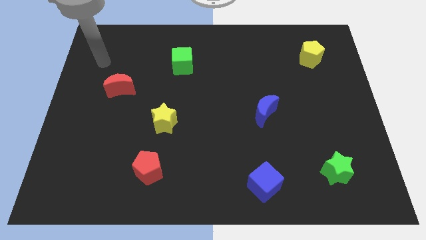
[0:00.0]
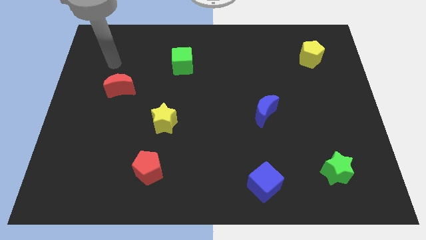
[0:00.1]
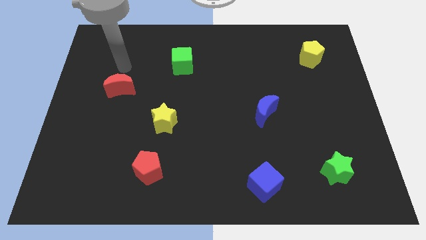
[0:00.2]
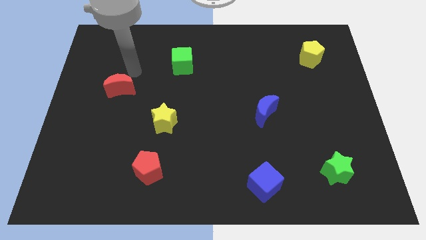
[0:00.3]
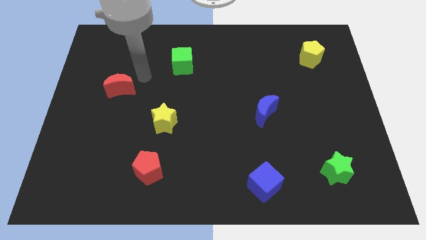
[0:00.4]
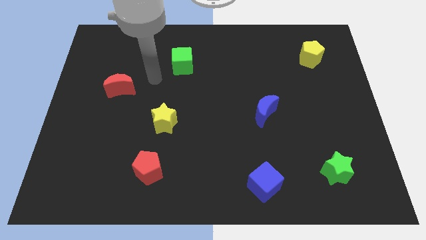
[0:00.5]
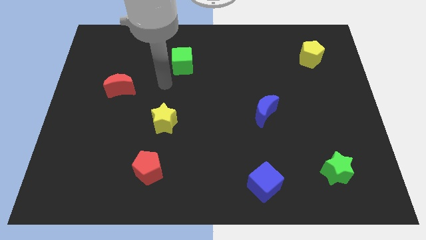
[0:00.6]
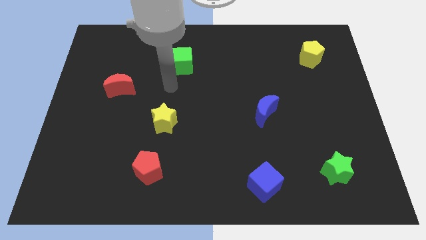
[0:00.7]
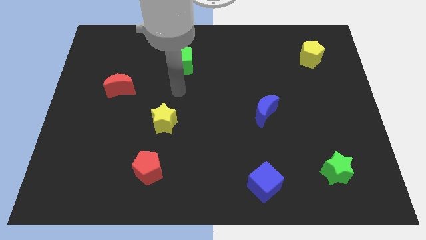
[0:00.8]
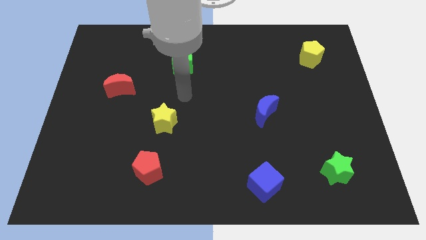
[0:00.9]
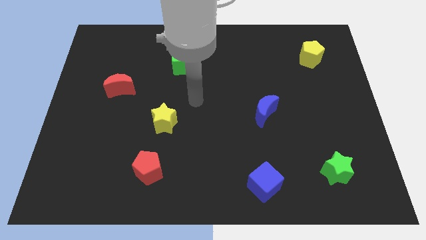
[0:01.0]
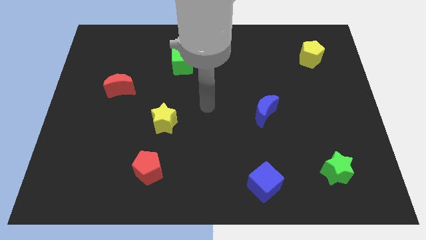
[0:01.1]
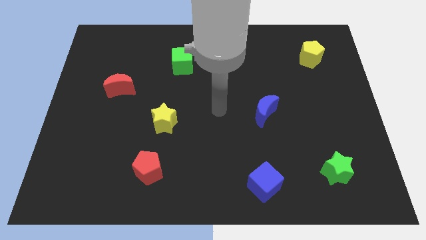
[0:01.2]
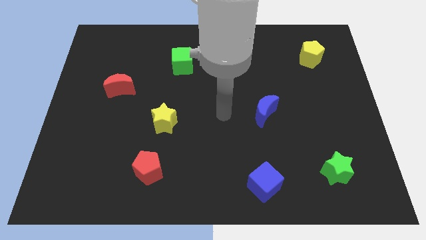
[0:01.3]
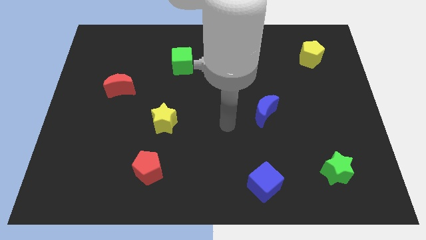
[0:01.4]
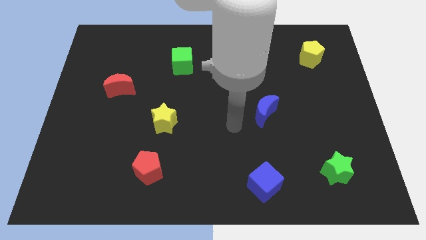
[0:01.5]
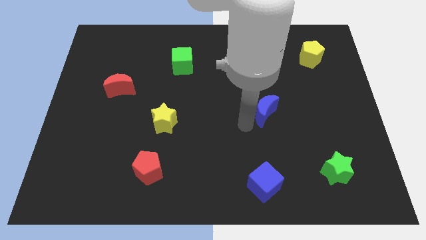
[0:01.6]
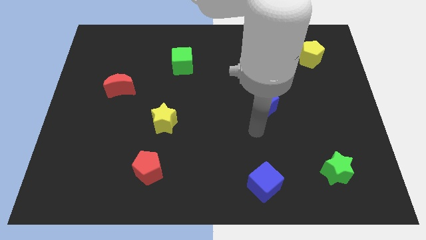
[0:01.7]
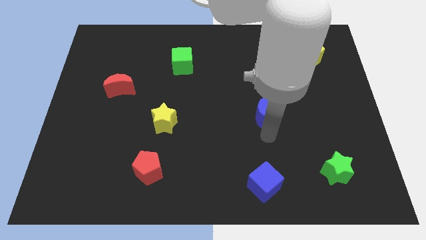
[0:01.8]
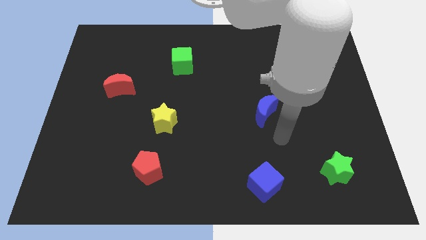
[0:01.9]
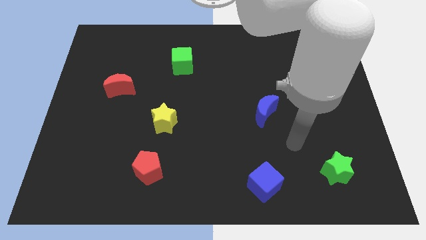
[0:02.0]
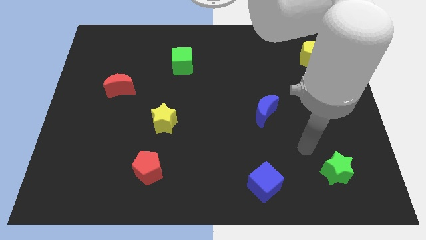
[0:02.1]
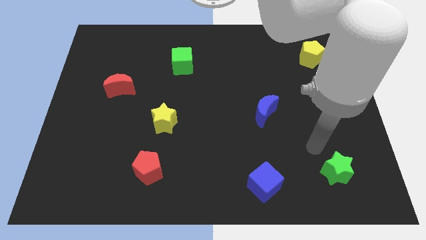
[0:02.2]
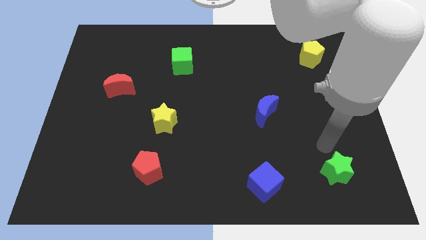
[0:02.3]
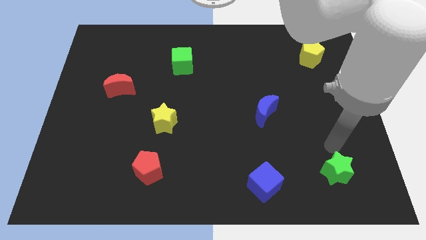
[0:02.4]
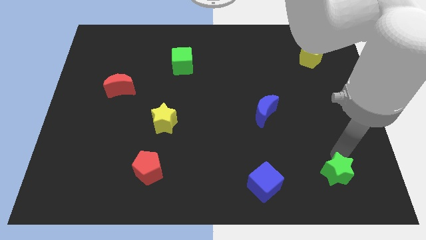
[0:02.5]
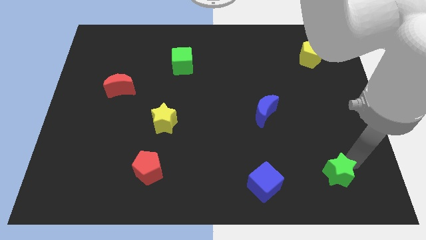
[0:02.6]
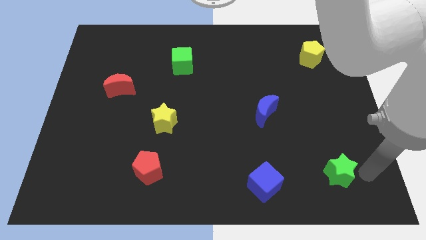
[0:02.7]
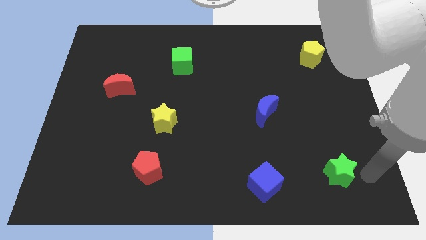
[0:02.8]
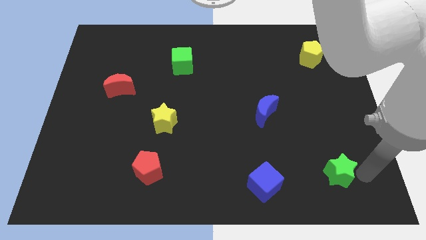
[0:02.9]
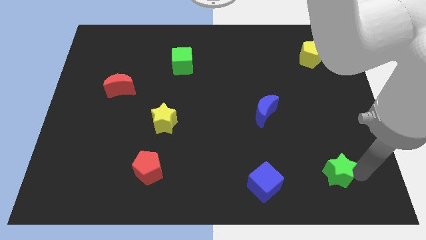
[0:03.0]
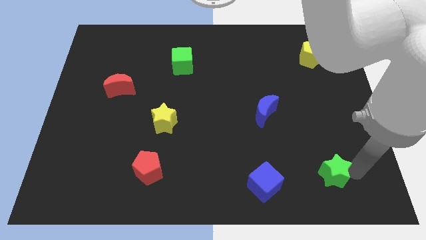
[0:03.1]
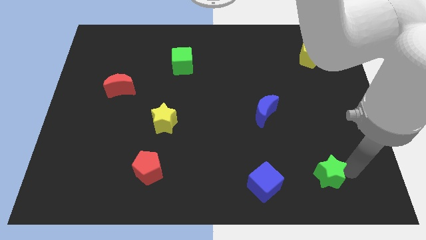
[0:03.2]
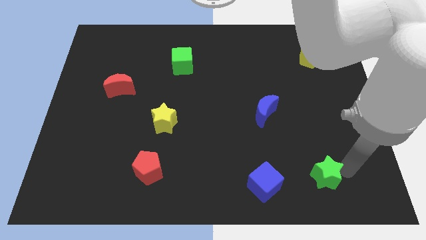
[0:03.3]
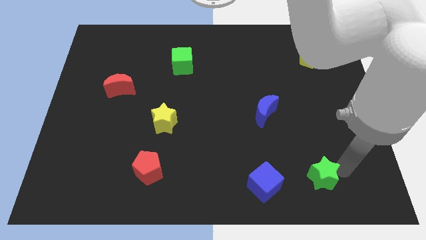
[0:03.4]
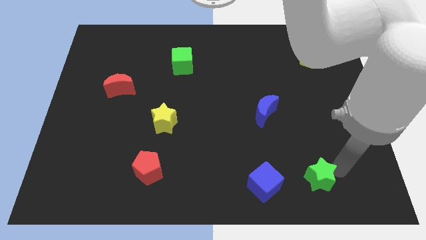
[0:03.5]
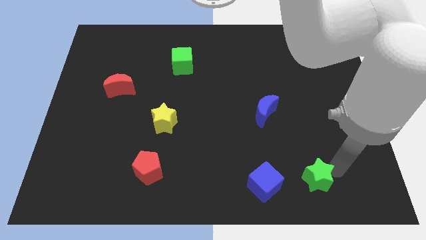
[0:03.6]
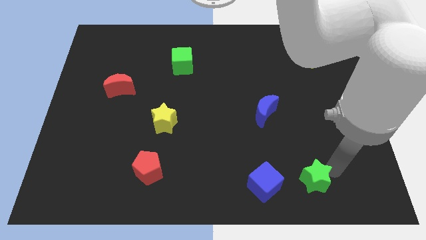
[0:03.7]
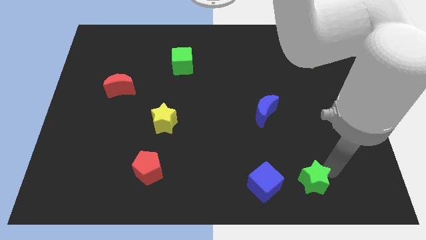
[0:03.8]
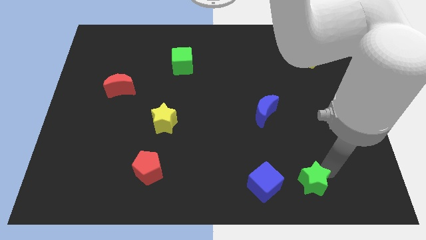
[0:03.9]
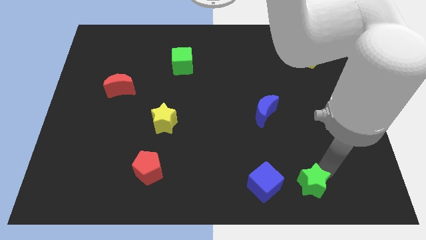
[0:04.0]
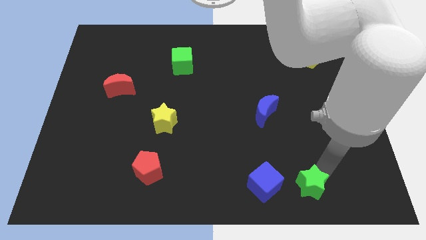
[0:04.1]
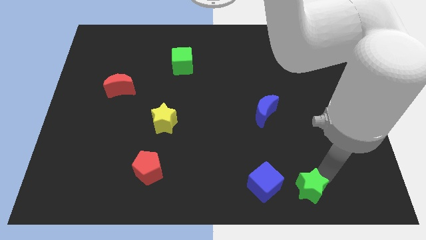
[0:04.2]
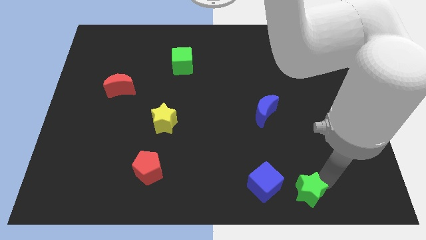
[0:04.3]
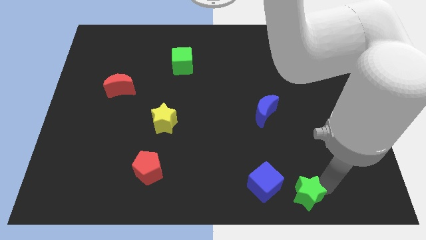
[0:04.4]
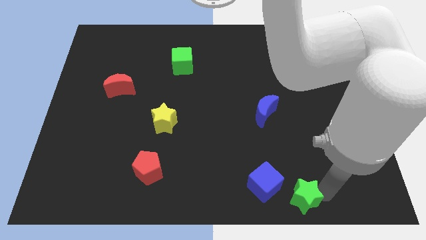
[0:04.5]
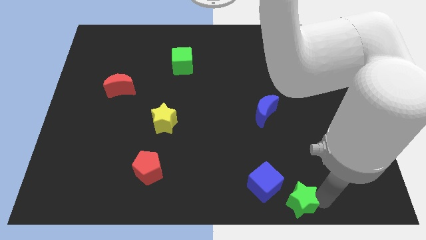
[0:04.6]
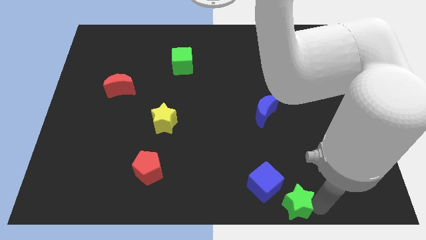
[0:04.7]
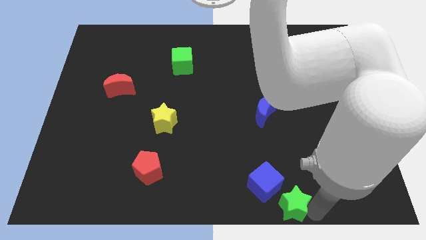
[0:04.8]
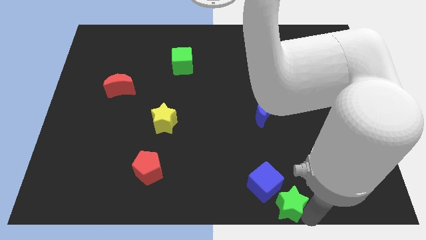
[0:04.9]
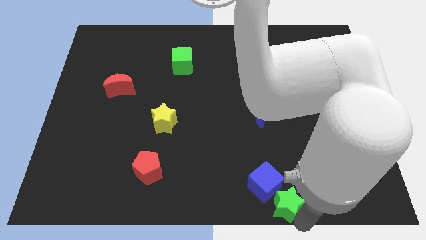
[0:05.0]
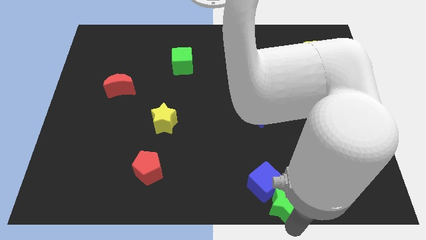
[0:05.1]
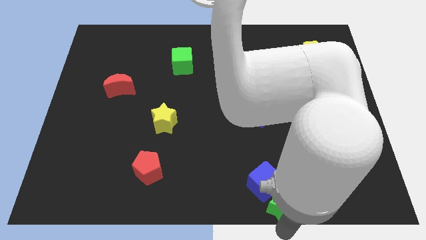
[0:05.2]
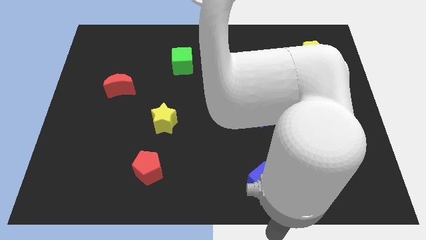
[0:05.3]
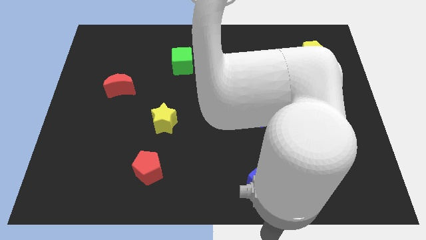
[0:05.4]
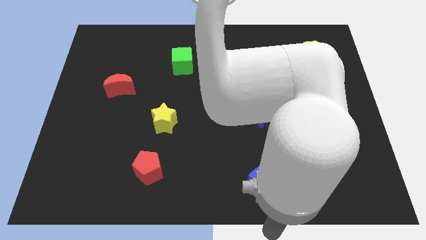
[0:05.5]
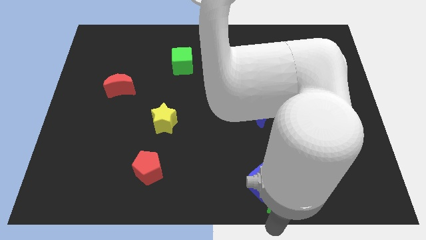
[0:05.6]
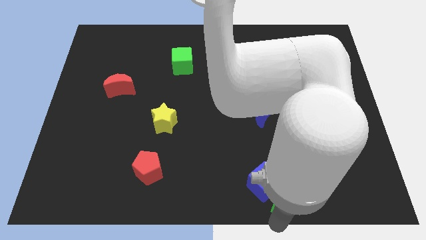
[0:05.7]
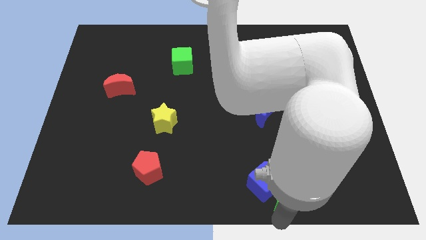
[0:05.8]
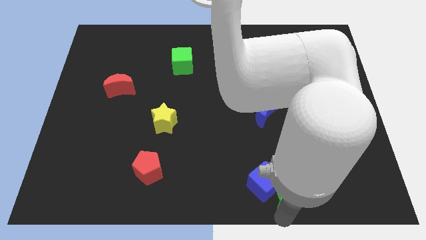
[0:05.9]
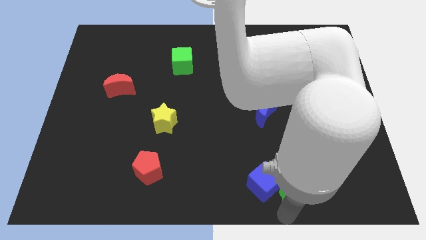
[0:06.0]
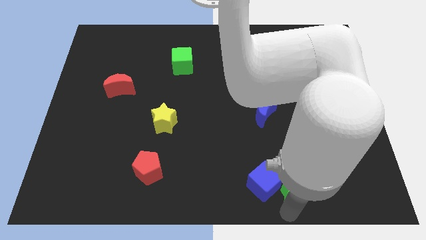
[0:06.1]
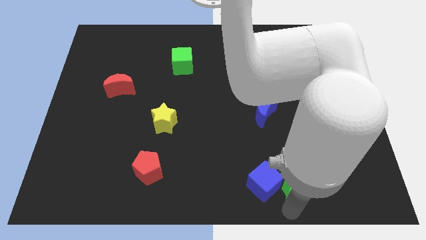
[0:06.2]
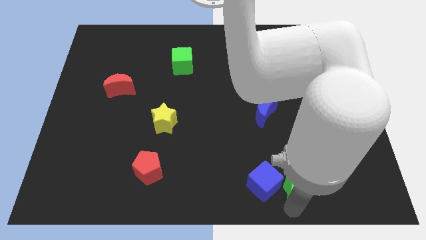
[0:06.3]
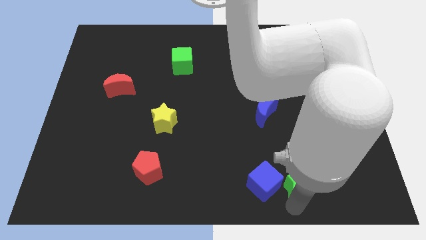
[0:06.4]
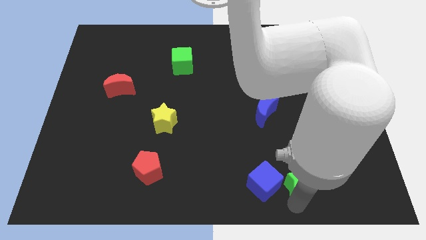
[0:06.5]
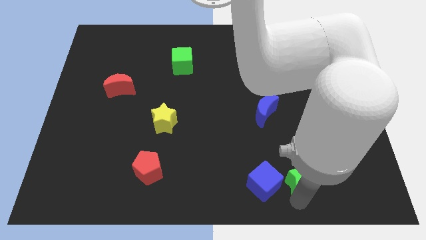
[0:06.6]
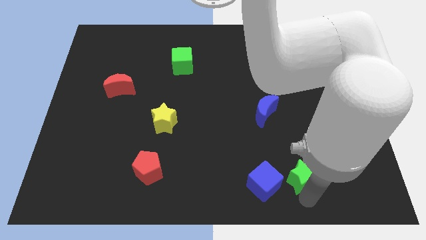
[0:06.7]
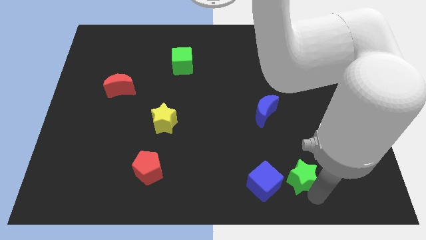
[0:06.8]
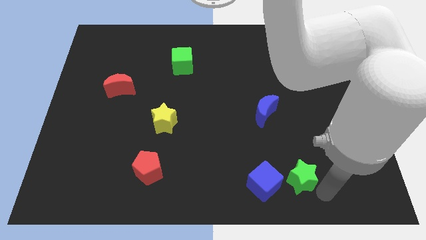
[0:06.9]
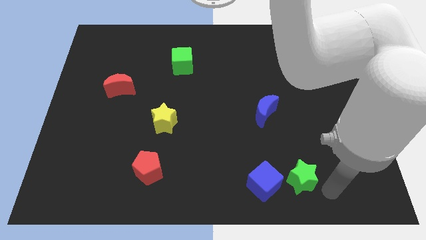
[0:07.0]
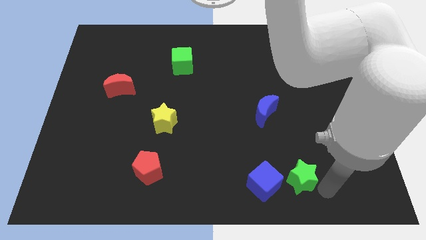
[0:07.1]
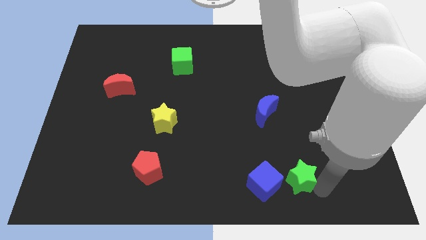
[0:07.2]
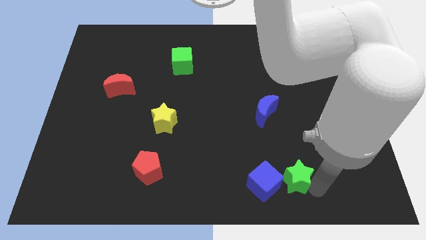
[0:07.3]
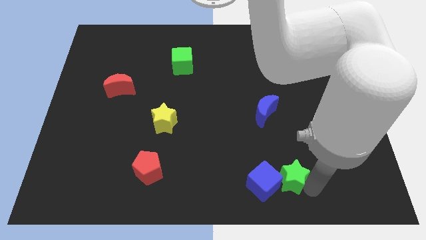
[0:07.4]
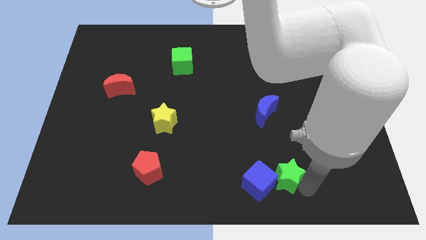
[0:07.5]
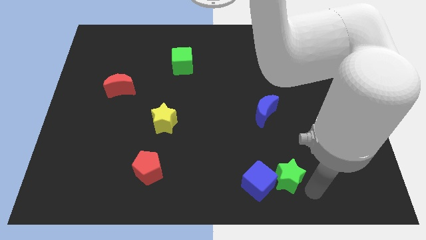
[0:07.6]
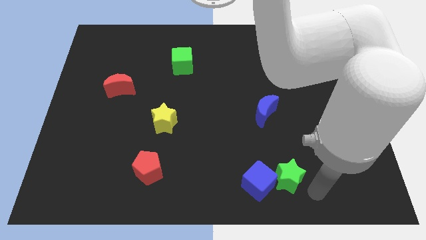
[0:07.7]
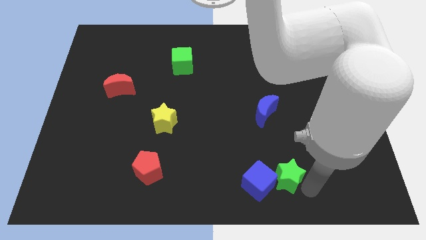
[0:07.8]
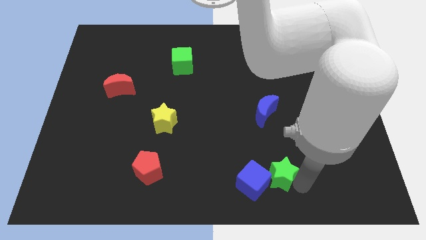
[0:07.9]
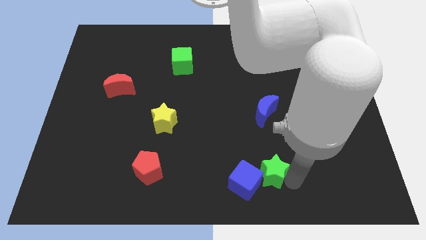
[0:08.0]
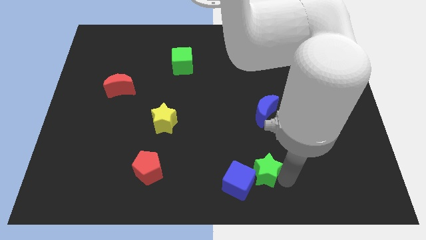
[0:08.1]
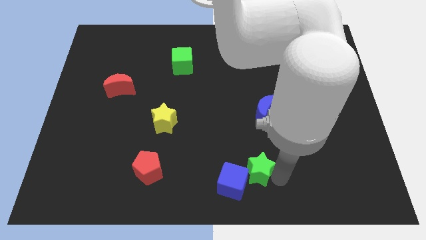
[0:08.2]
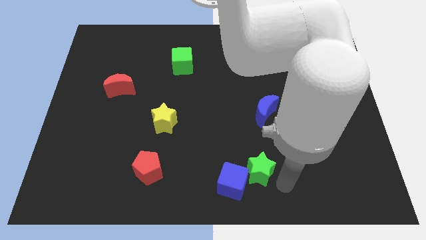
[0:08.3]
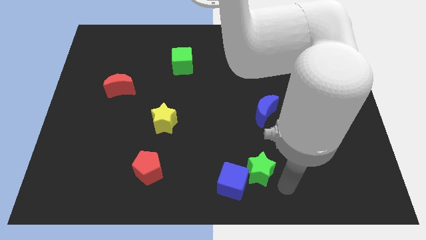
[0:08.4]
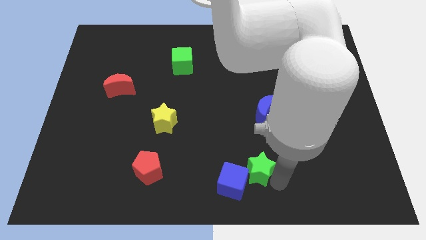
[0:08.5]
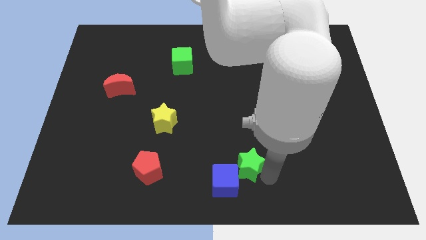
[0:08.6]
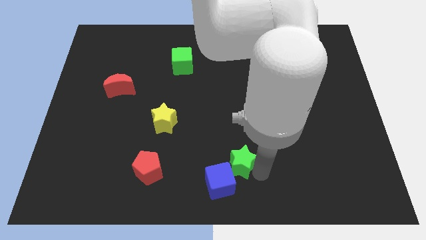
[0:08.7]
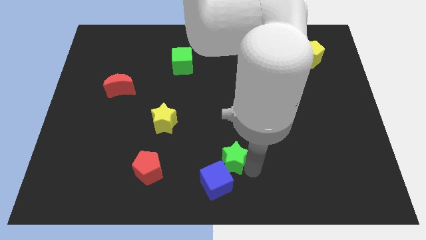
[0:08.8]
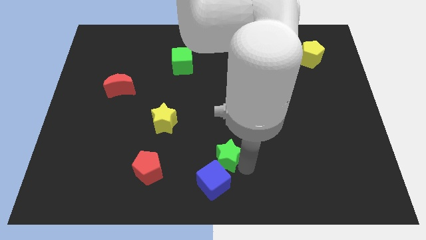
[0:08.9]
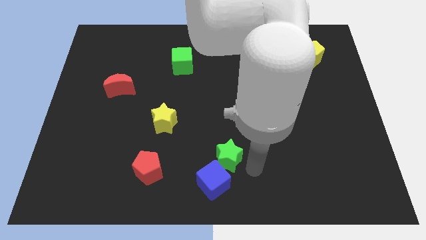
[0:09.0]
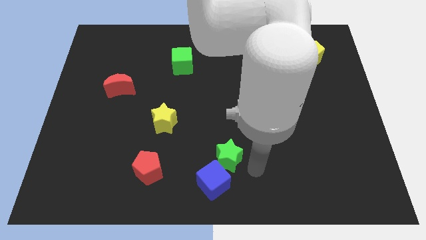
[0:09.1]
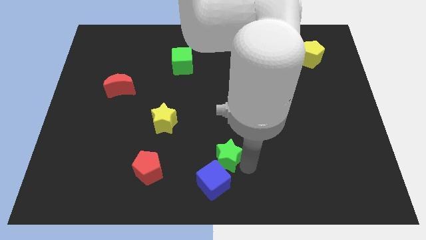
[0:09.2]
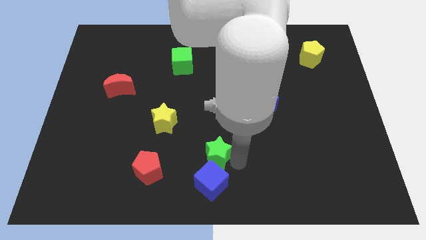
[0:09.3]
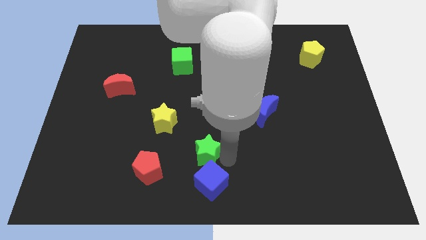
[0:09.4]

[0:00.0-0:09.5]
push the green star to the bottom right of the yellow star
